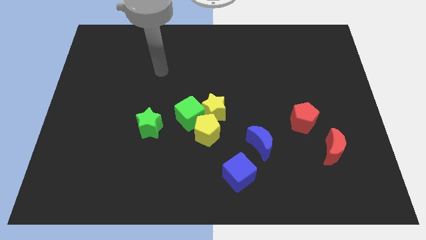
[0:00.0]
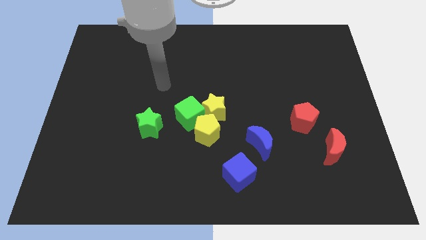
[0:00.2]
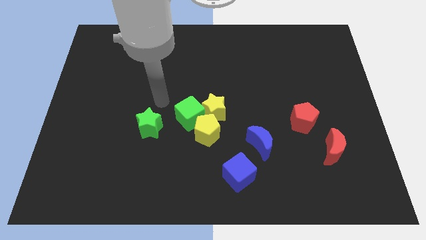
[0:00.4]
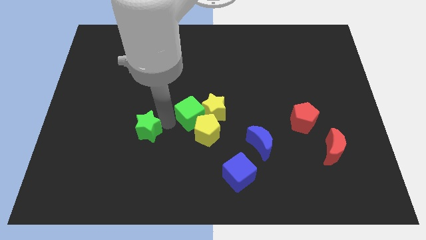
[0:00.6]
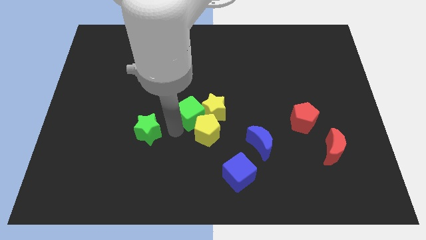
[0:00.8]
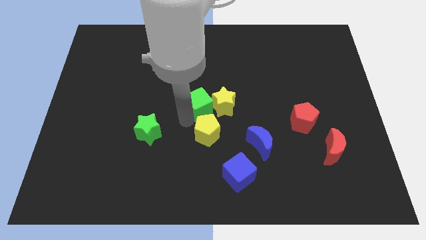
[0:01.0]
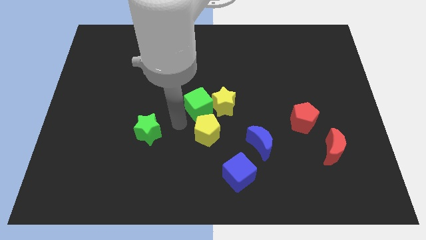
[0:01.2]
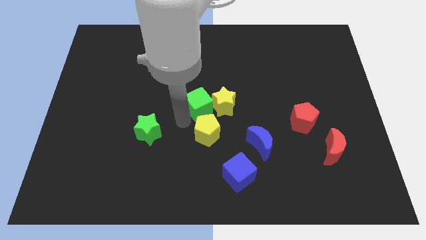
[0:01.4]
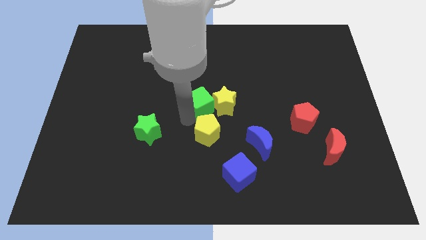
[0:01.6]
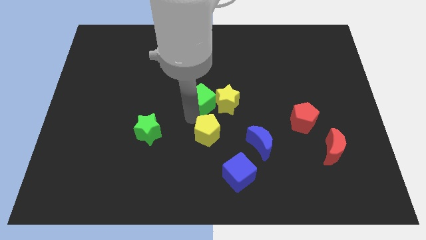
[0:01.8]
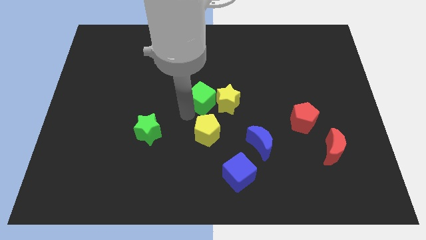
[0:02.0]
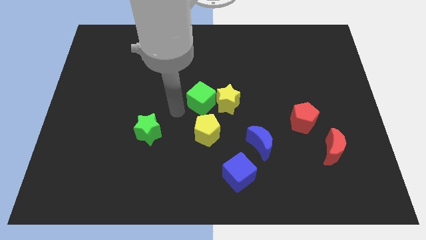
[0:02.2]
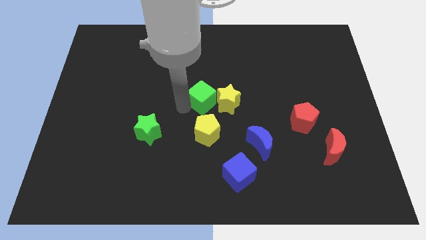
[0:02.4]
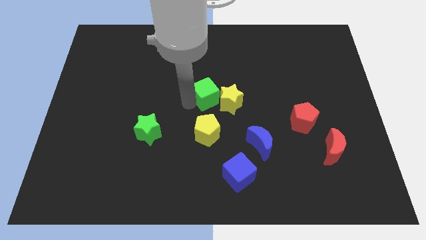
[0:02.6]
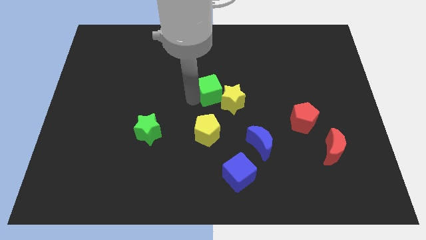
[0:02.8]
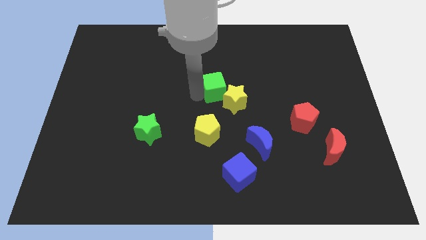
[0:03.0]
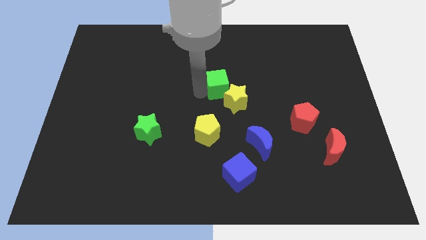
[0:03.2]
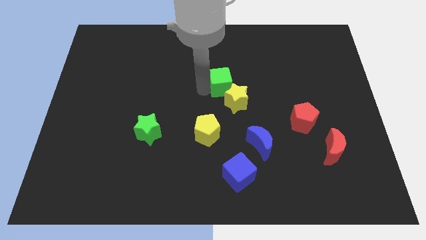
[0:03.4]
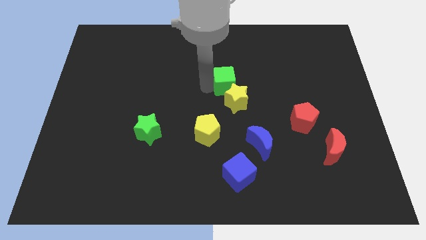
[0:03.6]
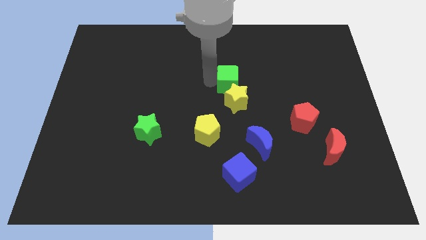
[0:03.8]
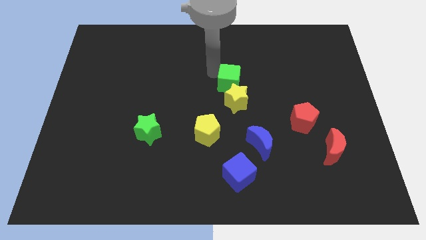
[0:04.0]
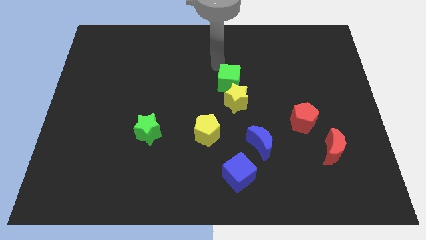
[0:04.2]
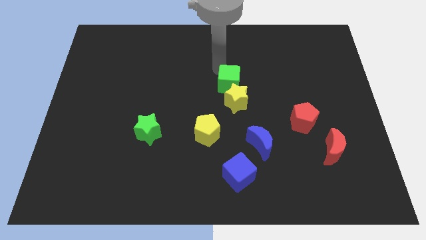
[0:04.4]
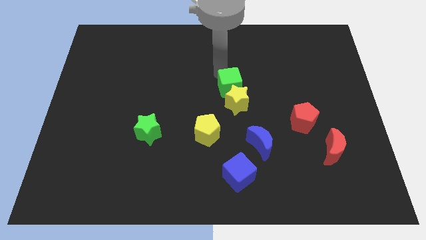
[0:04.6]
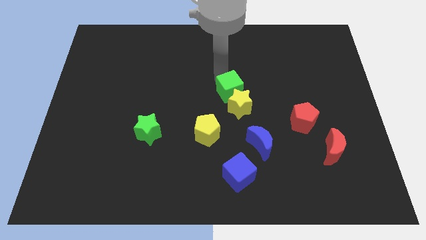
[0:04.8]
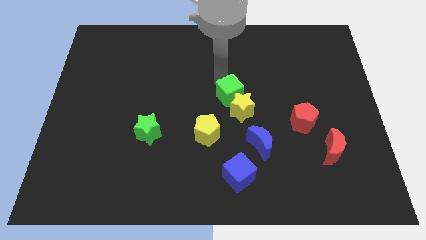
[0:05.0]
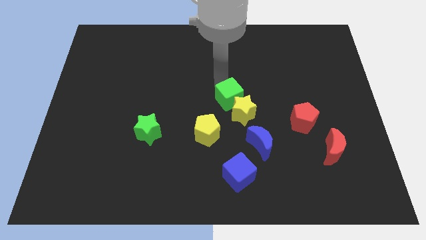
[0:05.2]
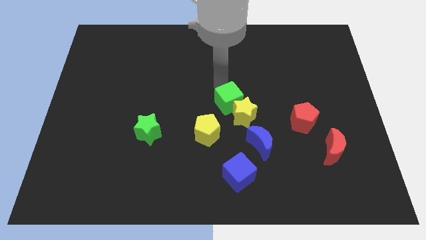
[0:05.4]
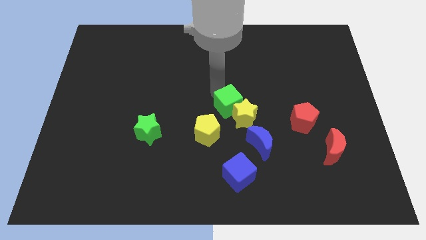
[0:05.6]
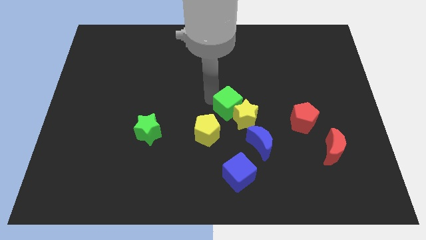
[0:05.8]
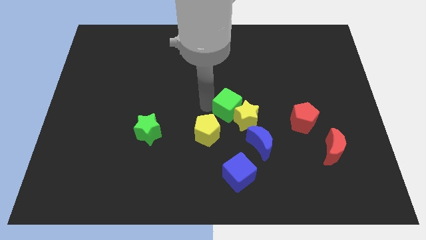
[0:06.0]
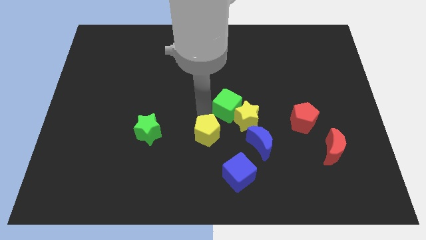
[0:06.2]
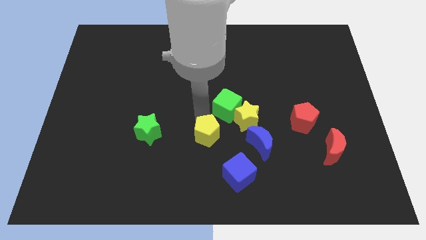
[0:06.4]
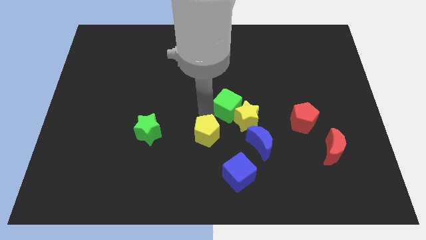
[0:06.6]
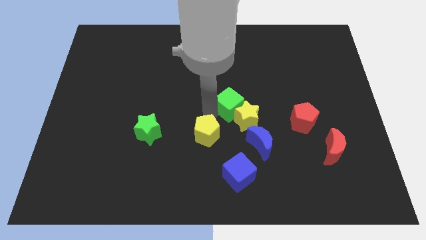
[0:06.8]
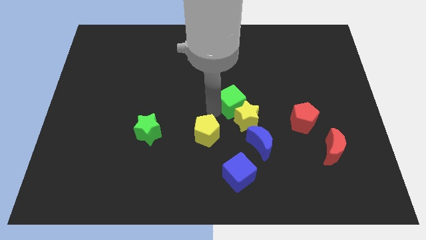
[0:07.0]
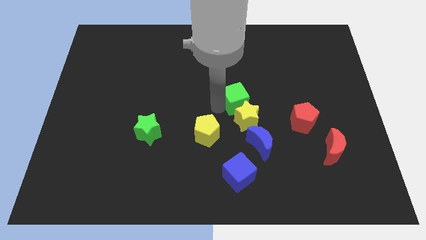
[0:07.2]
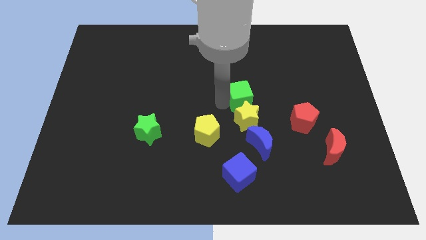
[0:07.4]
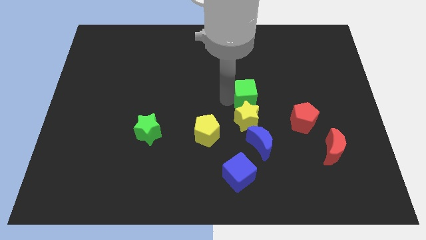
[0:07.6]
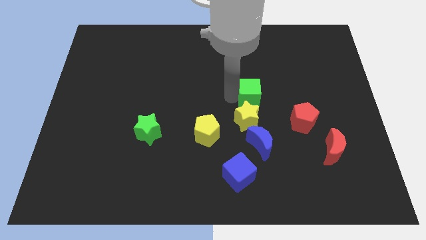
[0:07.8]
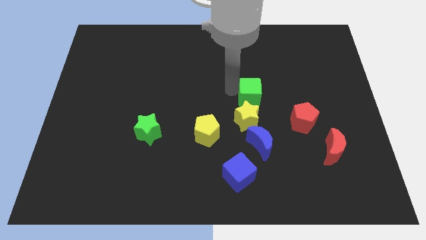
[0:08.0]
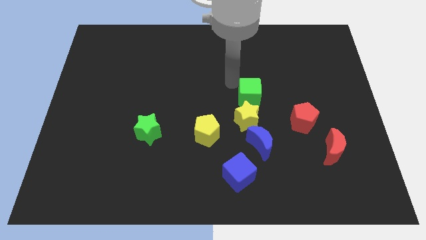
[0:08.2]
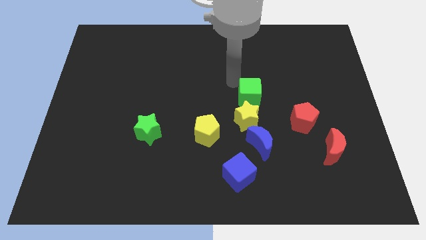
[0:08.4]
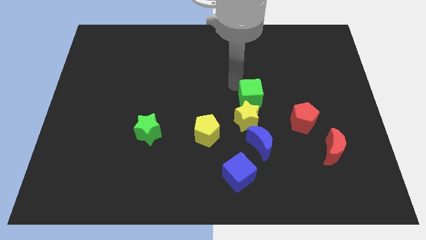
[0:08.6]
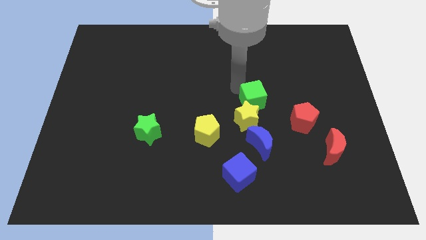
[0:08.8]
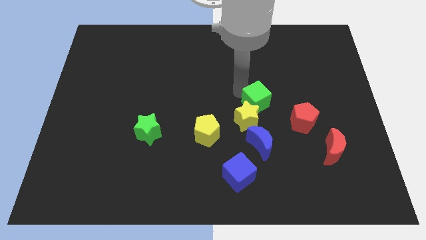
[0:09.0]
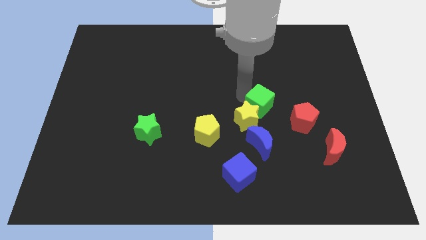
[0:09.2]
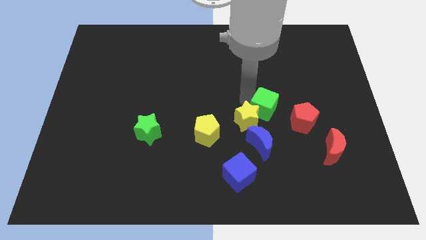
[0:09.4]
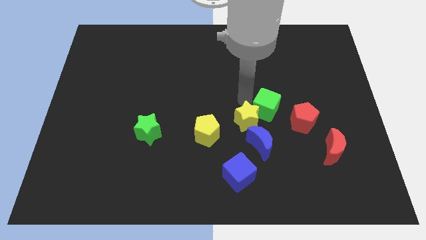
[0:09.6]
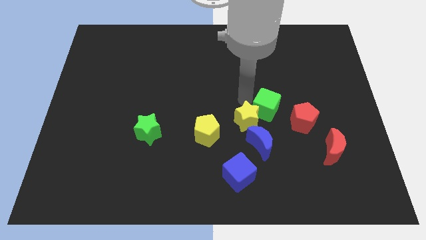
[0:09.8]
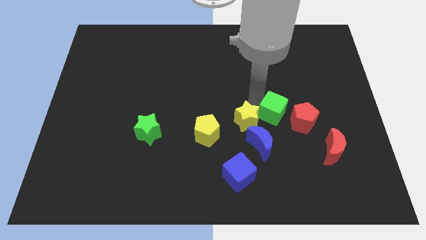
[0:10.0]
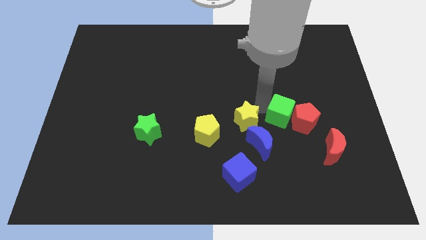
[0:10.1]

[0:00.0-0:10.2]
push the green cube to the red pentagon

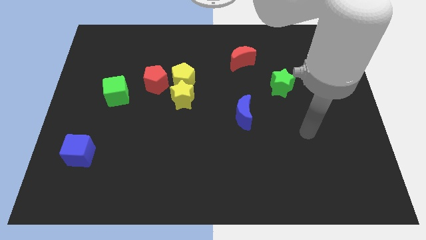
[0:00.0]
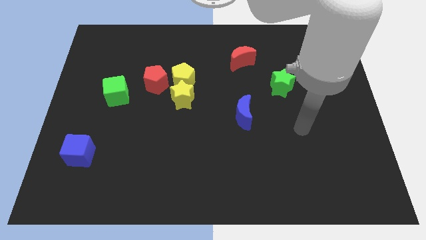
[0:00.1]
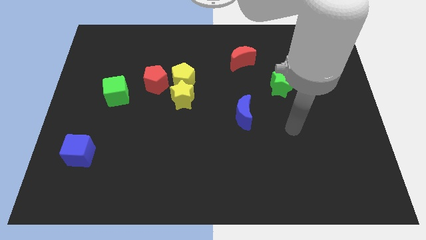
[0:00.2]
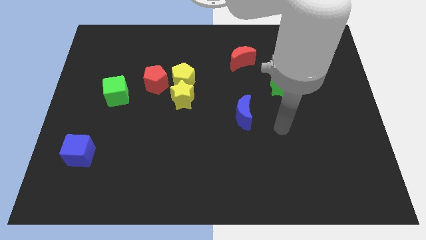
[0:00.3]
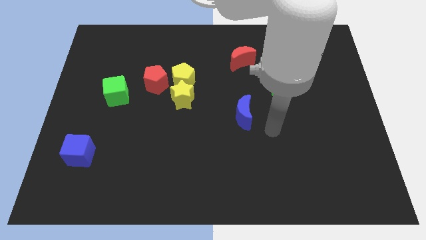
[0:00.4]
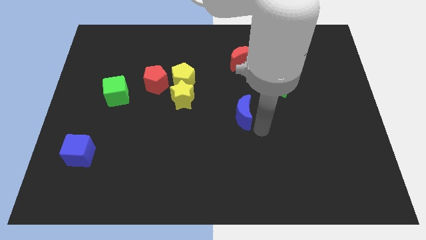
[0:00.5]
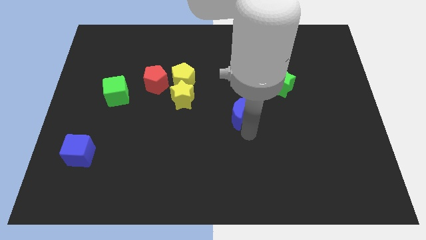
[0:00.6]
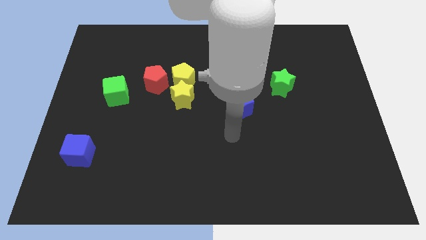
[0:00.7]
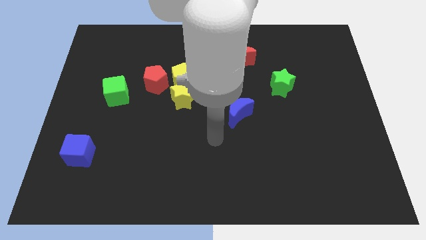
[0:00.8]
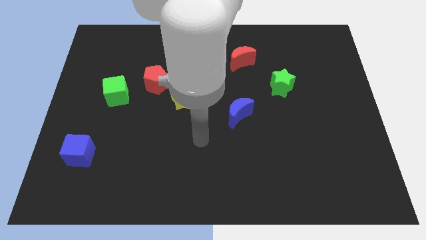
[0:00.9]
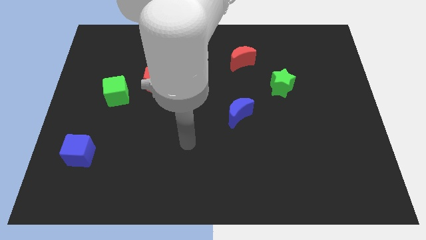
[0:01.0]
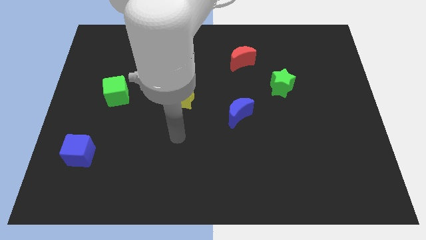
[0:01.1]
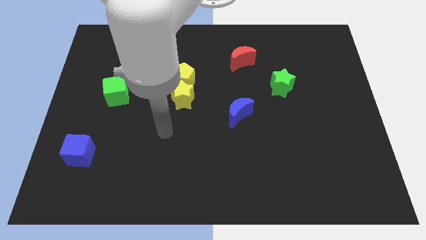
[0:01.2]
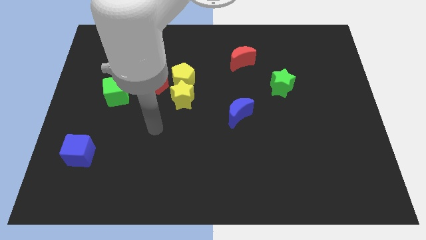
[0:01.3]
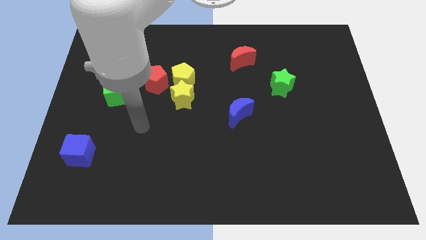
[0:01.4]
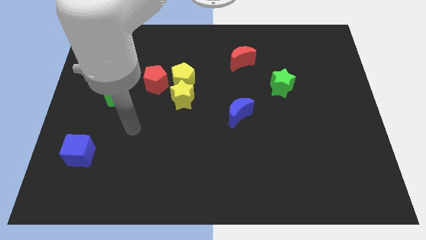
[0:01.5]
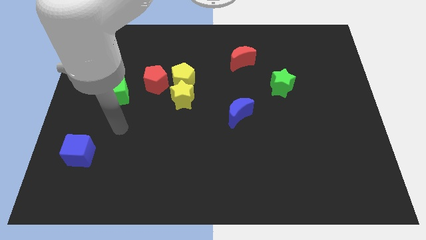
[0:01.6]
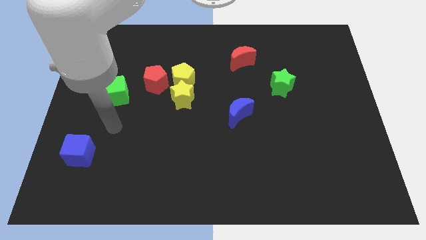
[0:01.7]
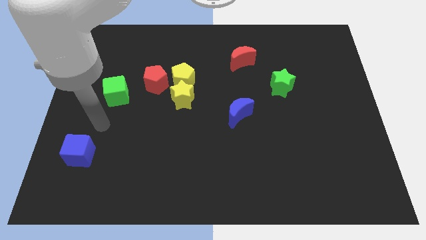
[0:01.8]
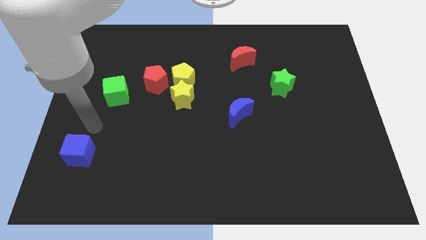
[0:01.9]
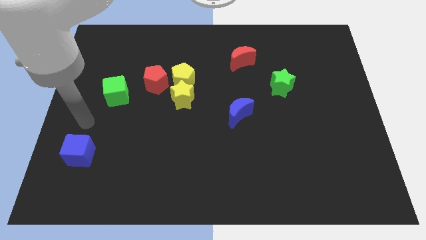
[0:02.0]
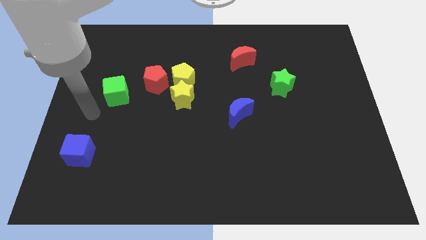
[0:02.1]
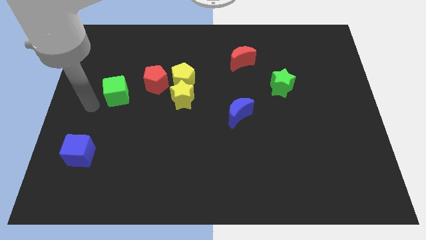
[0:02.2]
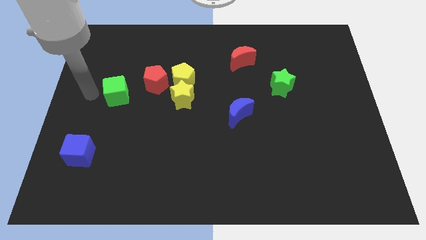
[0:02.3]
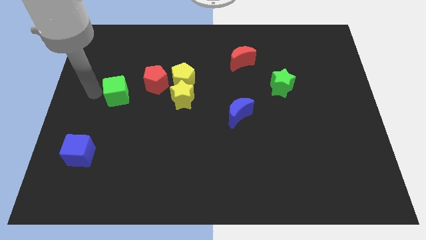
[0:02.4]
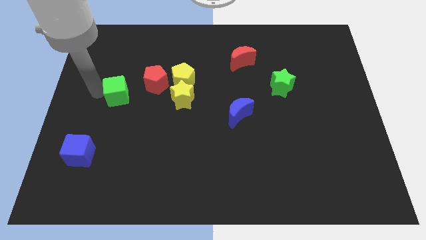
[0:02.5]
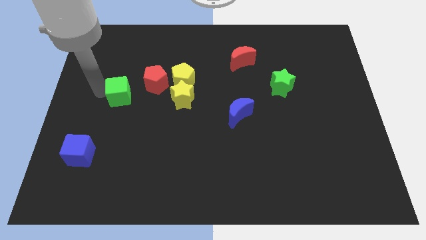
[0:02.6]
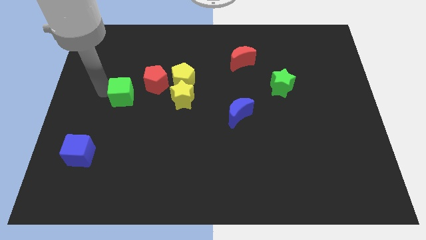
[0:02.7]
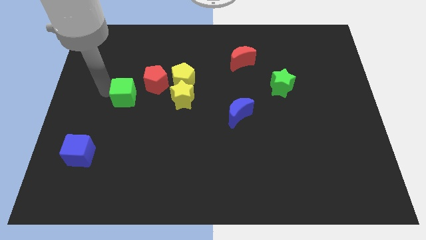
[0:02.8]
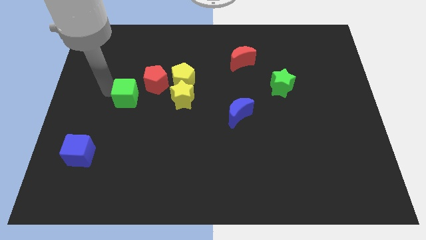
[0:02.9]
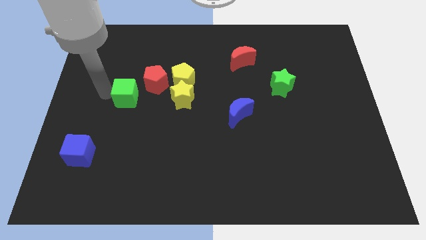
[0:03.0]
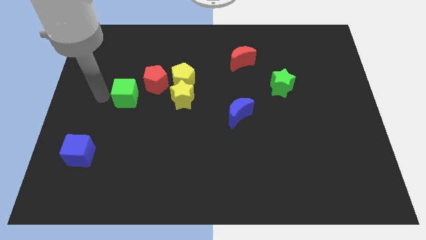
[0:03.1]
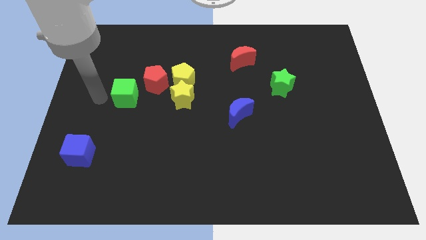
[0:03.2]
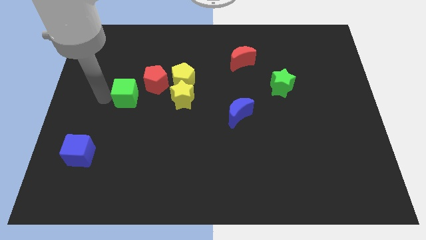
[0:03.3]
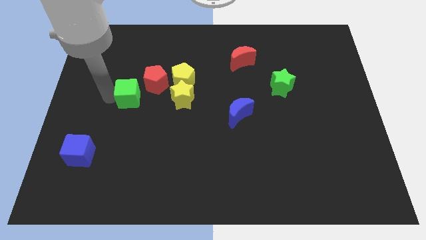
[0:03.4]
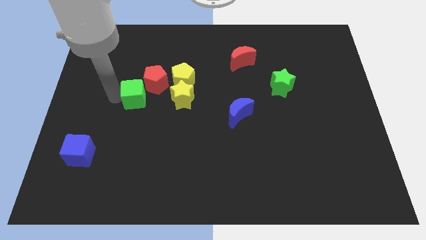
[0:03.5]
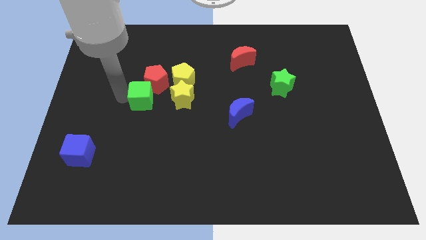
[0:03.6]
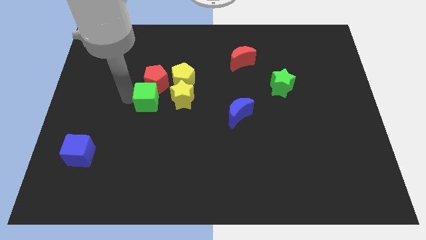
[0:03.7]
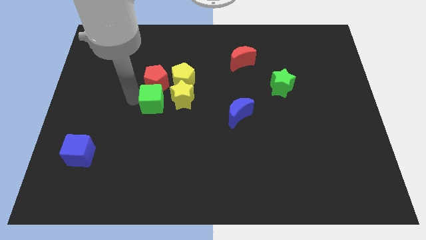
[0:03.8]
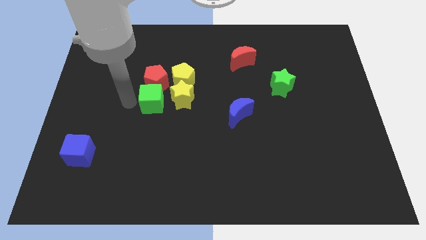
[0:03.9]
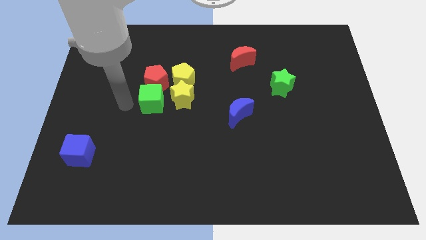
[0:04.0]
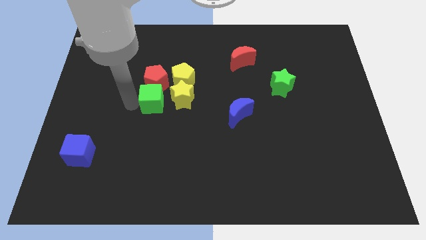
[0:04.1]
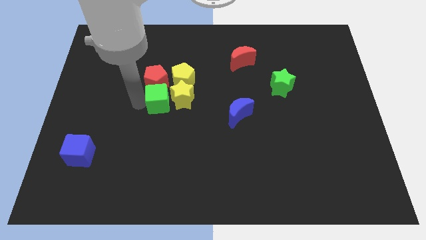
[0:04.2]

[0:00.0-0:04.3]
push the green cube next to the yellow star
